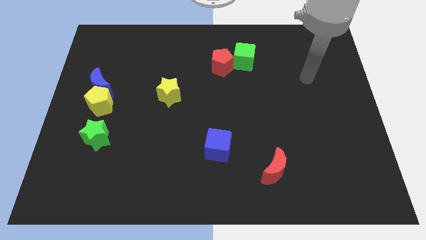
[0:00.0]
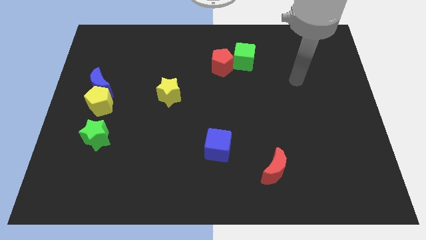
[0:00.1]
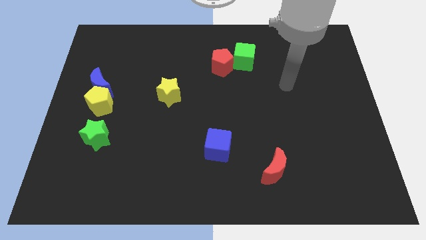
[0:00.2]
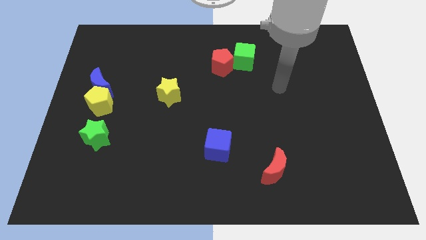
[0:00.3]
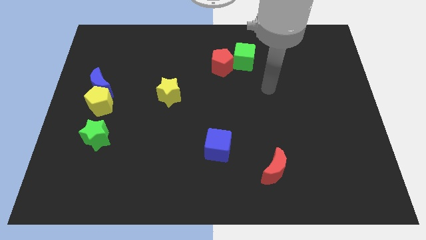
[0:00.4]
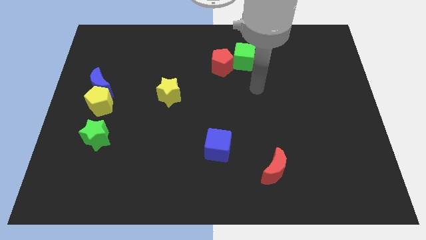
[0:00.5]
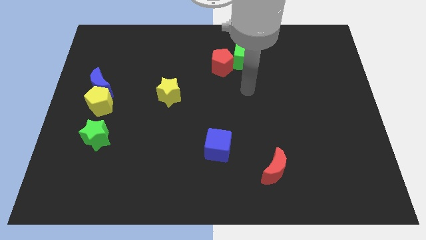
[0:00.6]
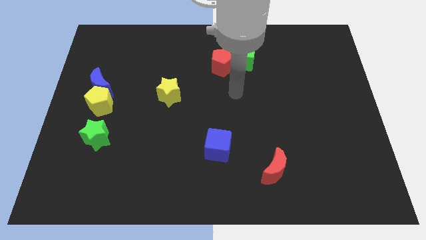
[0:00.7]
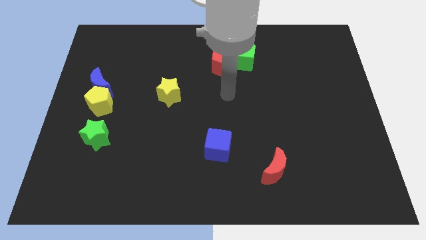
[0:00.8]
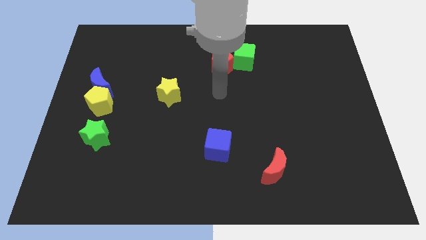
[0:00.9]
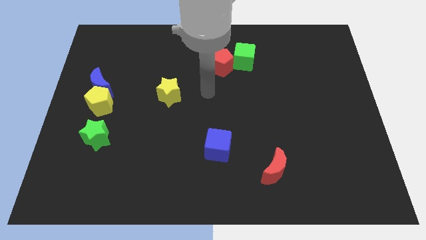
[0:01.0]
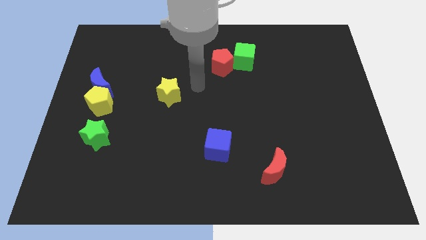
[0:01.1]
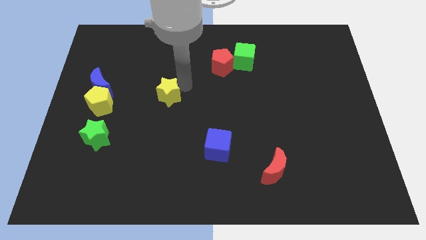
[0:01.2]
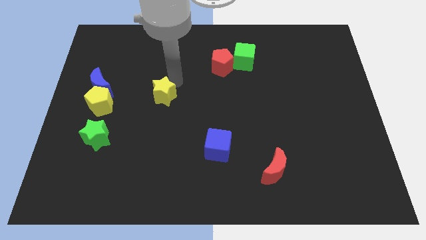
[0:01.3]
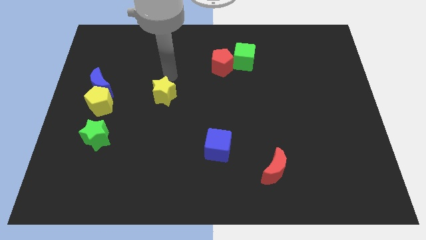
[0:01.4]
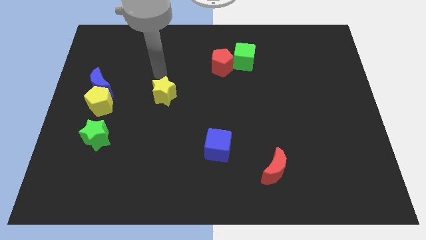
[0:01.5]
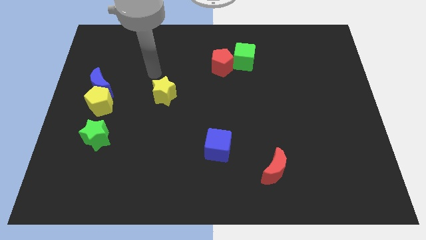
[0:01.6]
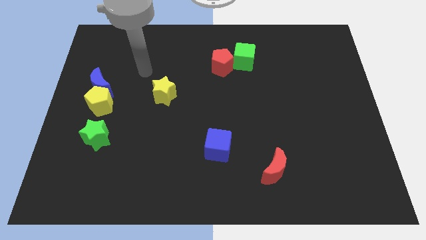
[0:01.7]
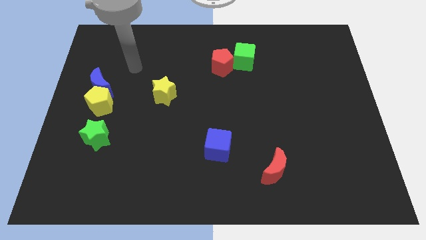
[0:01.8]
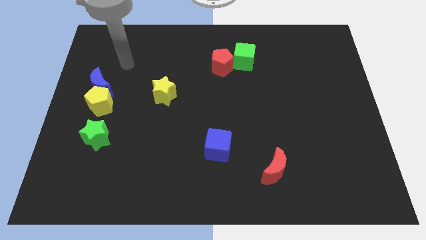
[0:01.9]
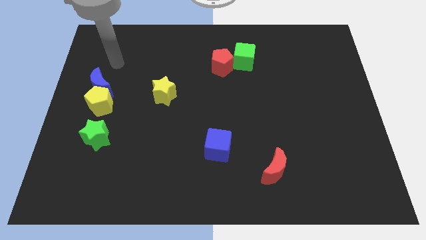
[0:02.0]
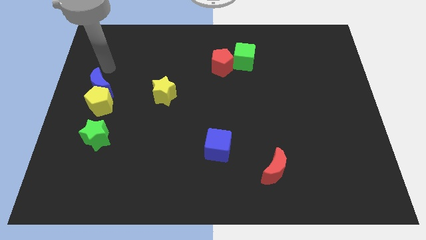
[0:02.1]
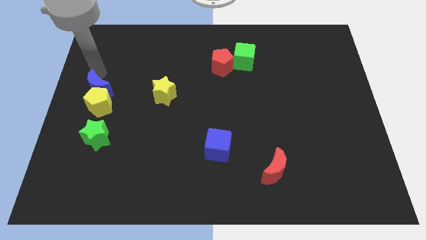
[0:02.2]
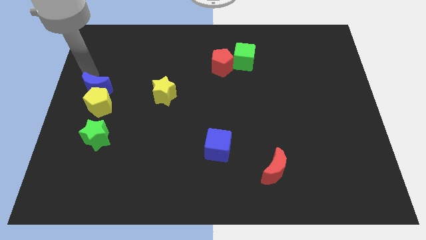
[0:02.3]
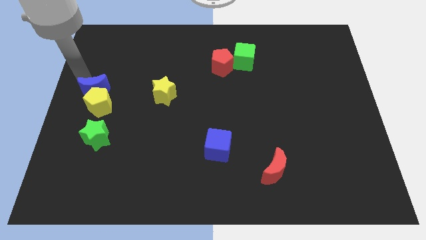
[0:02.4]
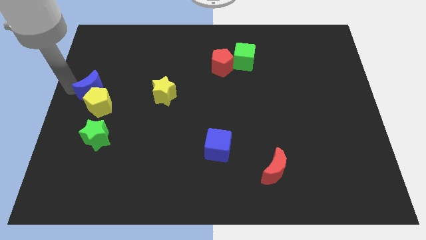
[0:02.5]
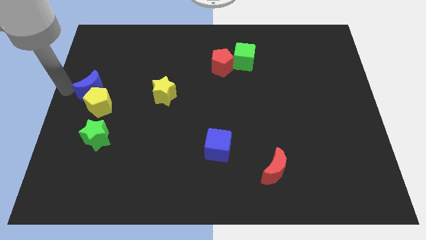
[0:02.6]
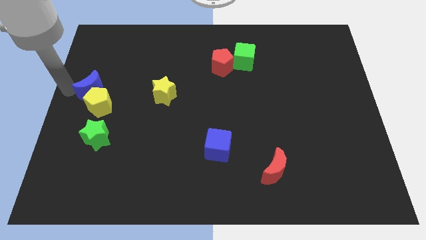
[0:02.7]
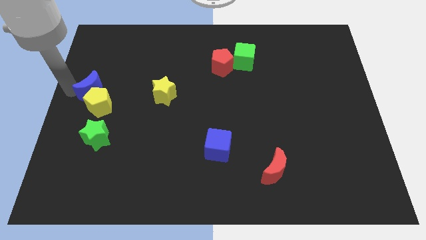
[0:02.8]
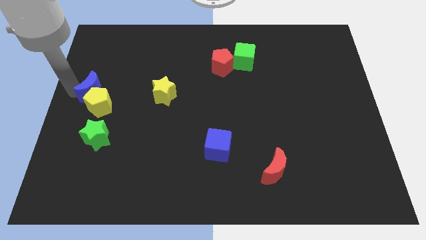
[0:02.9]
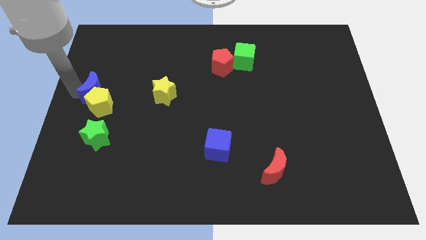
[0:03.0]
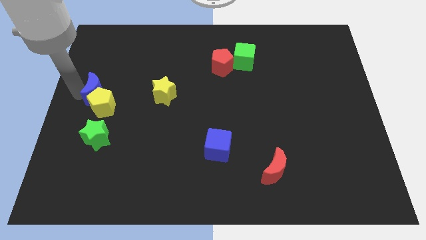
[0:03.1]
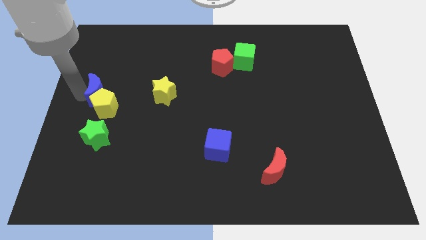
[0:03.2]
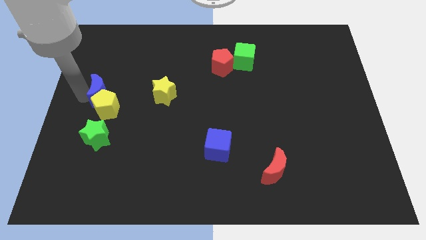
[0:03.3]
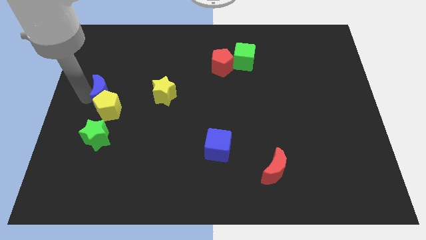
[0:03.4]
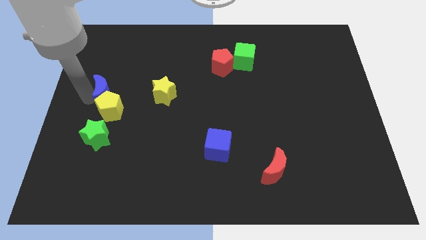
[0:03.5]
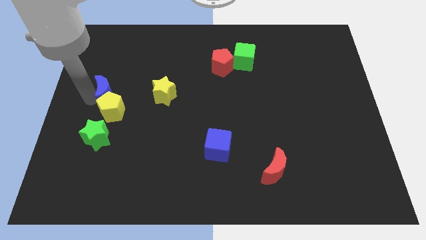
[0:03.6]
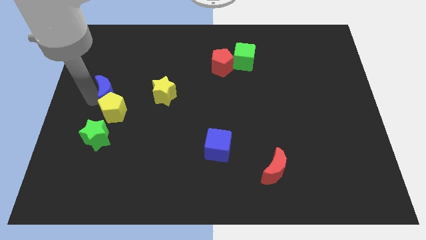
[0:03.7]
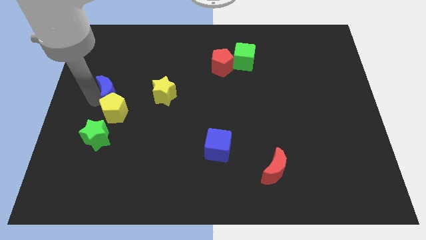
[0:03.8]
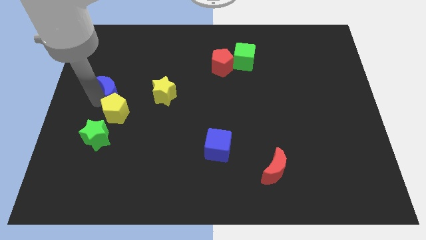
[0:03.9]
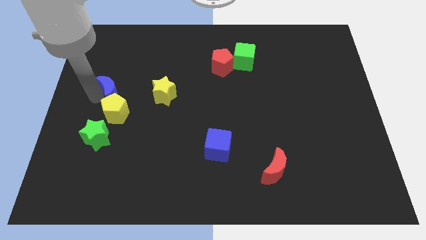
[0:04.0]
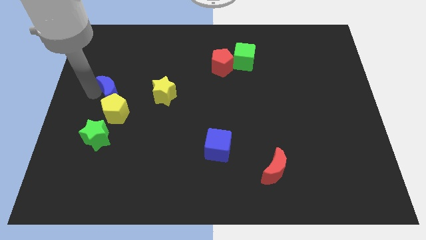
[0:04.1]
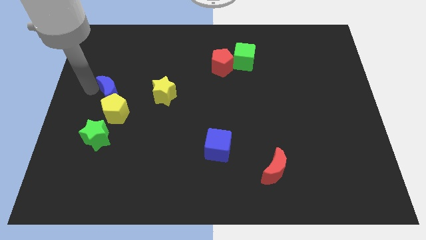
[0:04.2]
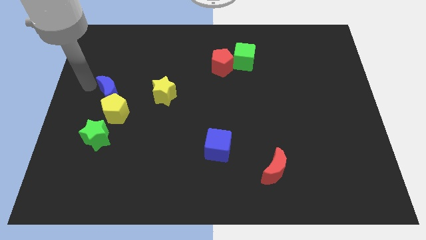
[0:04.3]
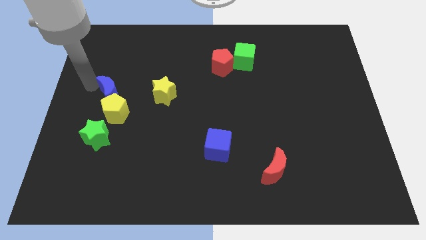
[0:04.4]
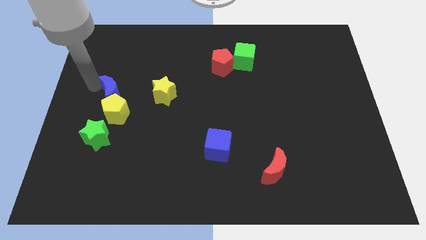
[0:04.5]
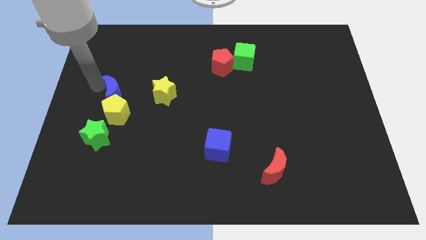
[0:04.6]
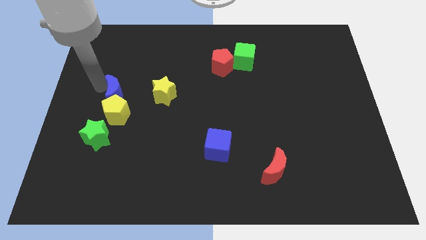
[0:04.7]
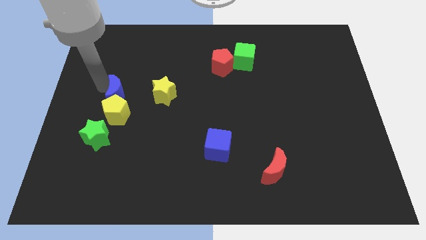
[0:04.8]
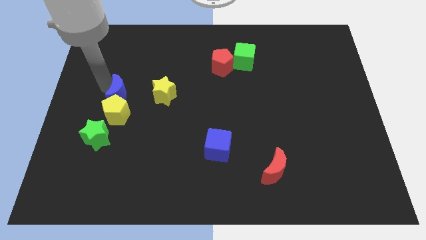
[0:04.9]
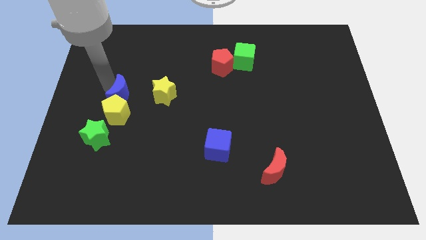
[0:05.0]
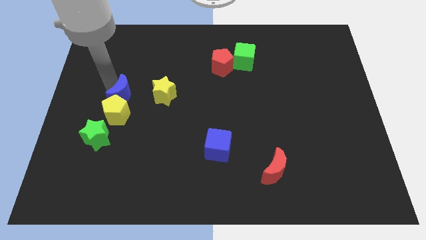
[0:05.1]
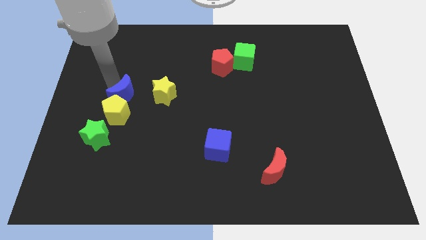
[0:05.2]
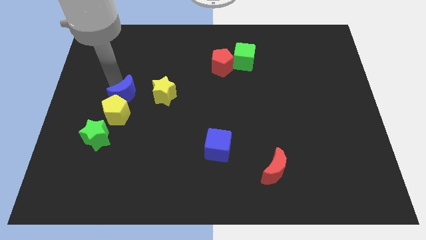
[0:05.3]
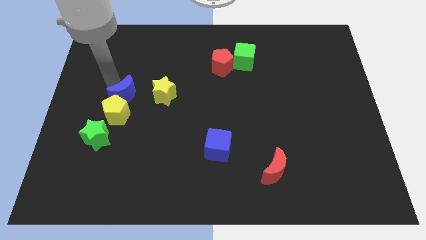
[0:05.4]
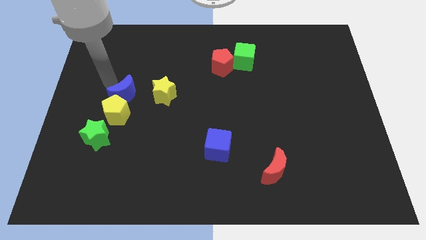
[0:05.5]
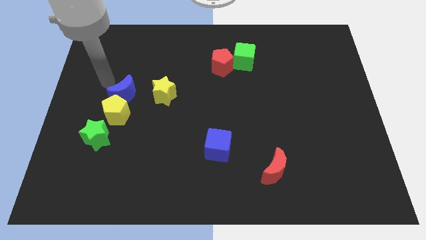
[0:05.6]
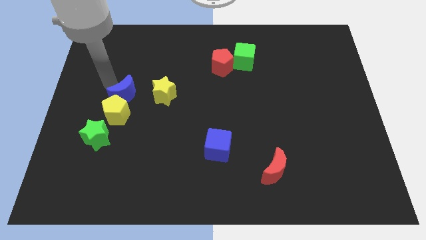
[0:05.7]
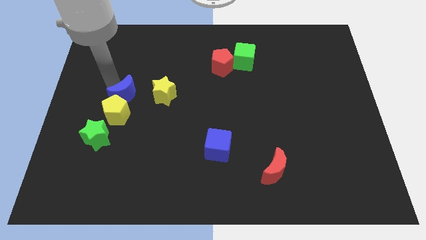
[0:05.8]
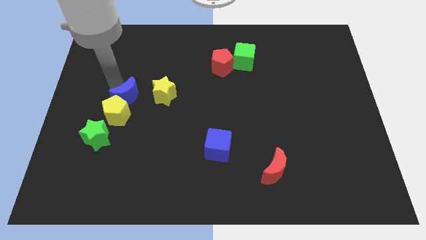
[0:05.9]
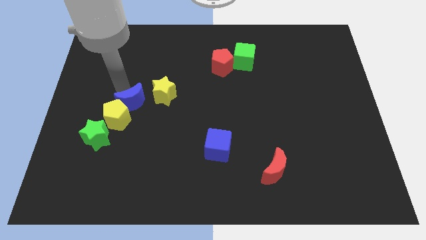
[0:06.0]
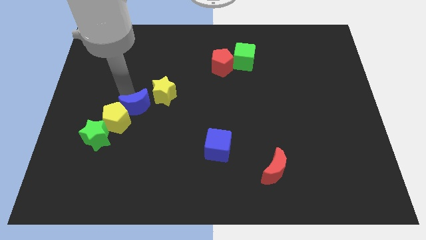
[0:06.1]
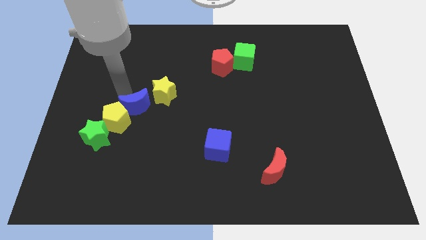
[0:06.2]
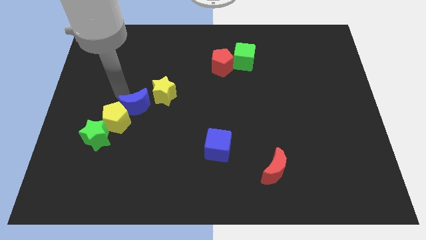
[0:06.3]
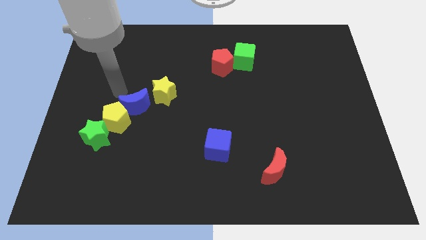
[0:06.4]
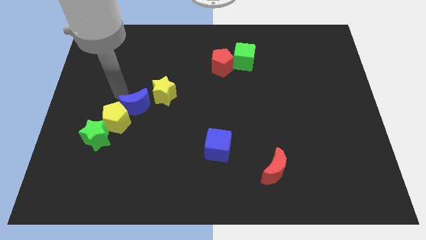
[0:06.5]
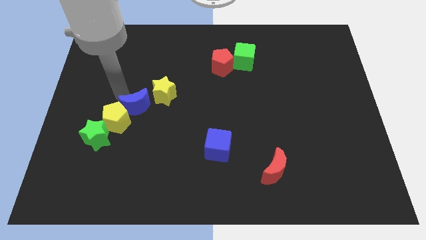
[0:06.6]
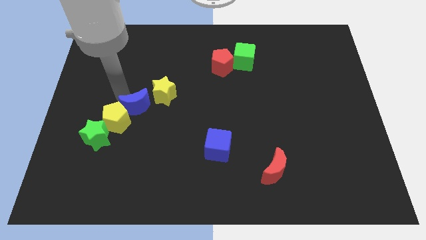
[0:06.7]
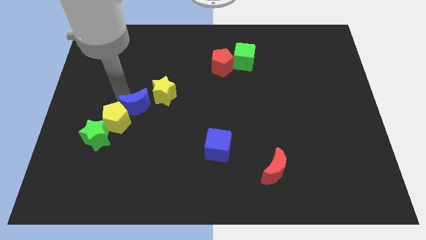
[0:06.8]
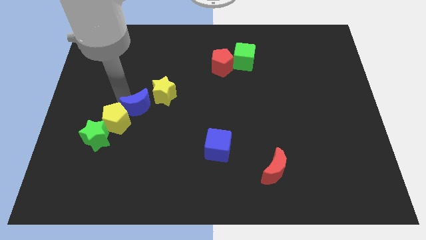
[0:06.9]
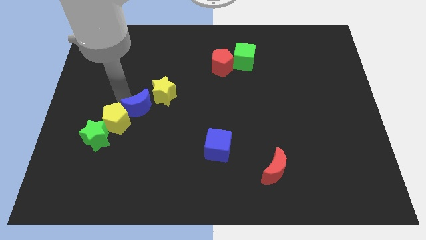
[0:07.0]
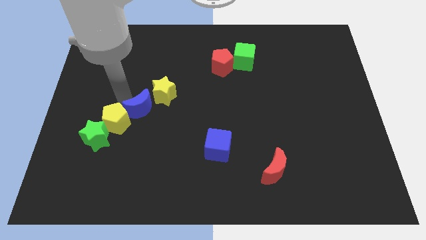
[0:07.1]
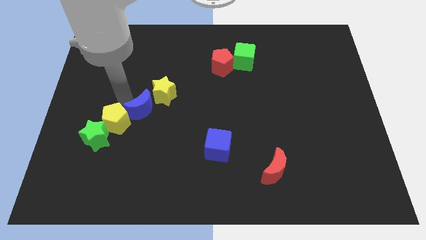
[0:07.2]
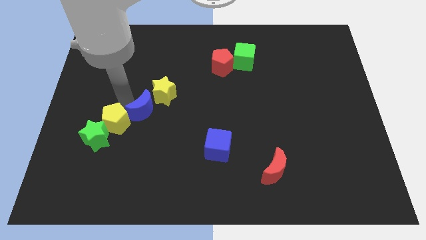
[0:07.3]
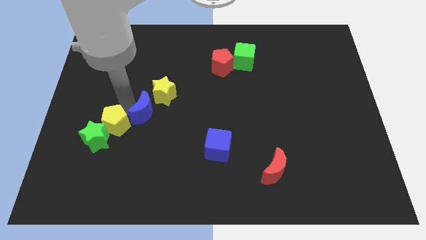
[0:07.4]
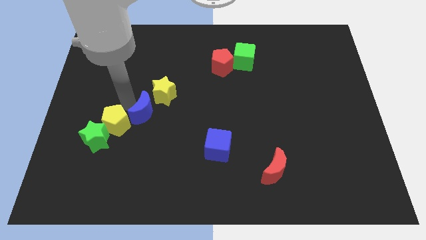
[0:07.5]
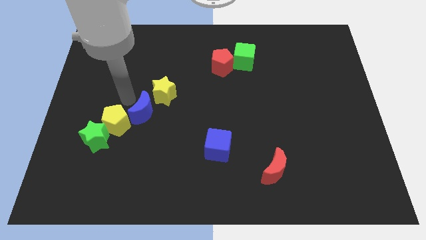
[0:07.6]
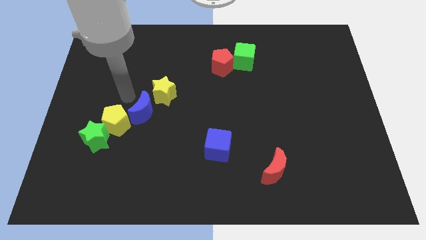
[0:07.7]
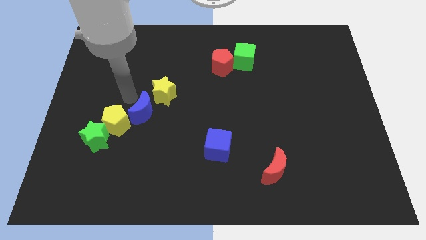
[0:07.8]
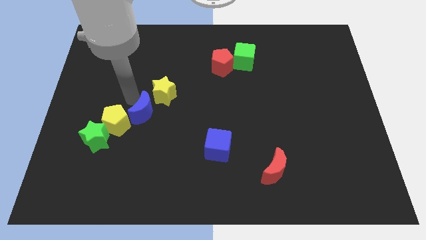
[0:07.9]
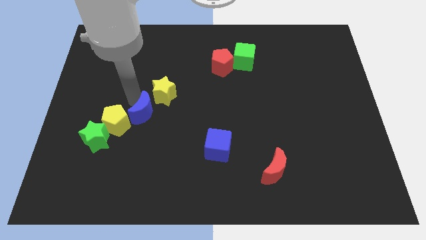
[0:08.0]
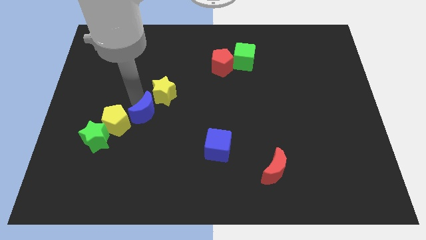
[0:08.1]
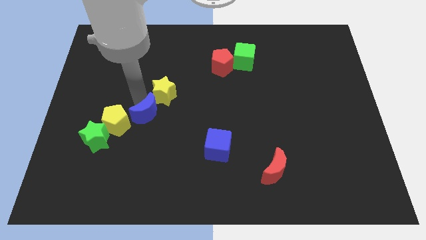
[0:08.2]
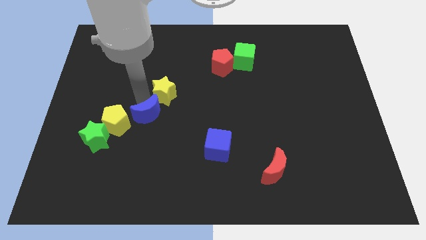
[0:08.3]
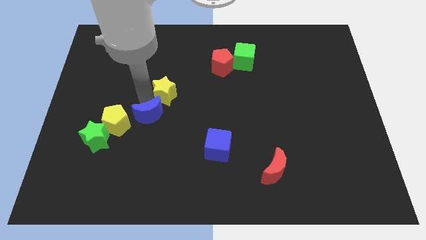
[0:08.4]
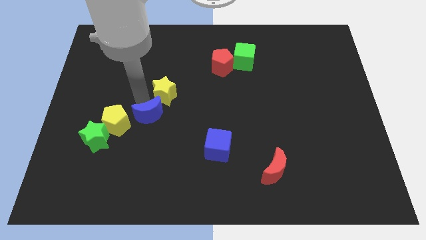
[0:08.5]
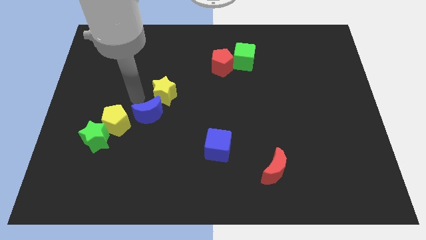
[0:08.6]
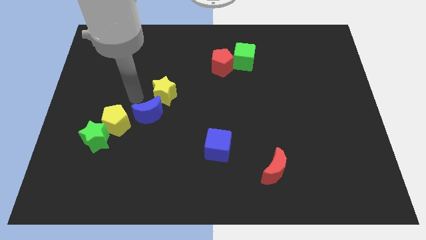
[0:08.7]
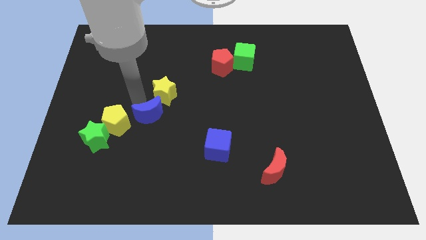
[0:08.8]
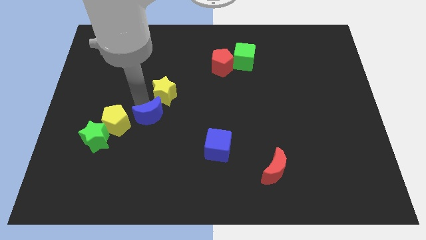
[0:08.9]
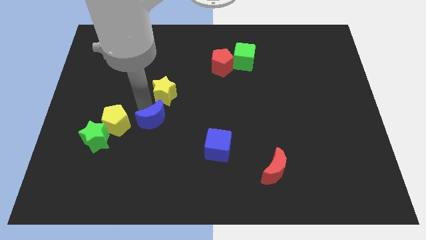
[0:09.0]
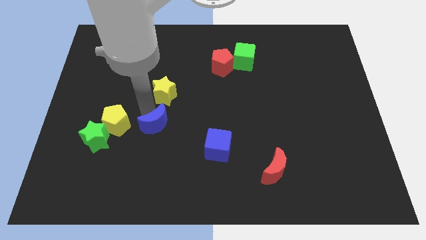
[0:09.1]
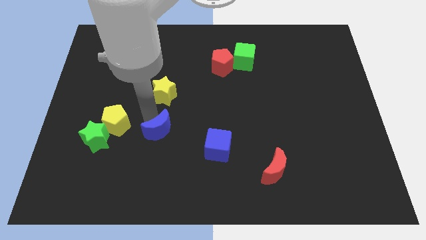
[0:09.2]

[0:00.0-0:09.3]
push the blue moon downwards and to the right
